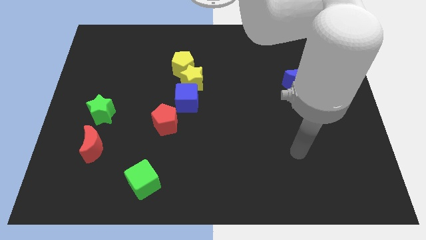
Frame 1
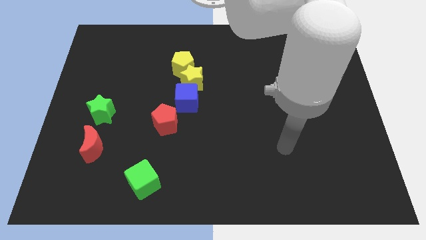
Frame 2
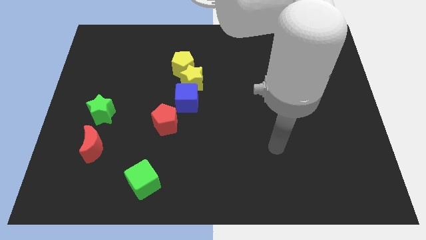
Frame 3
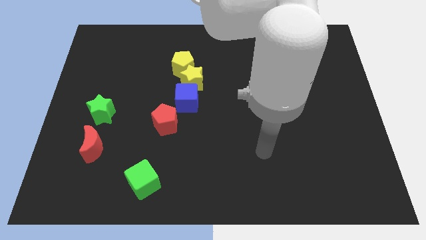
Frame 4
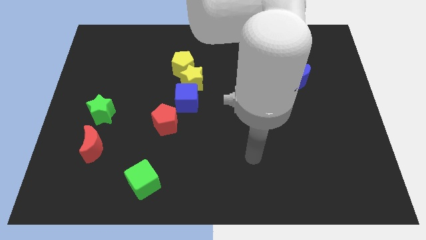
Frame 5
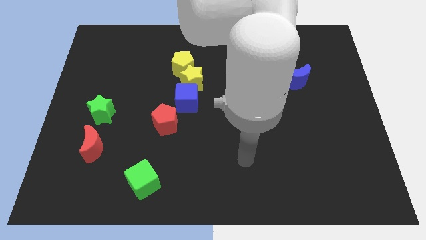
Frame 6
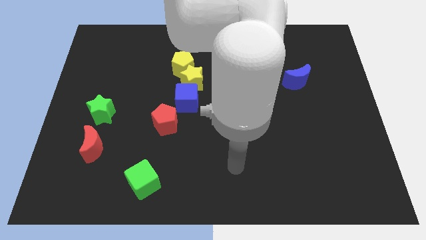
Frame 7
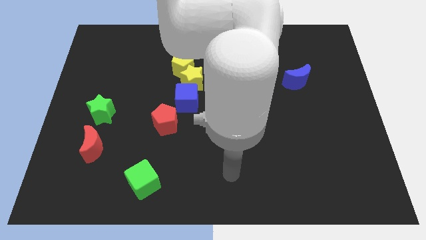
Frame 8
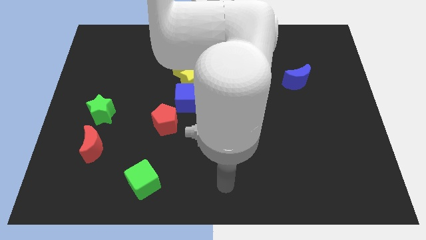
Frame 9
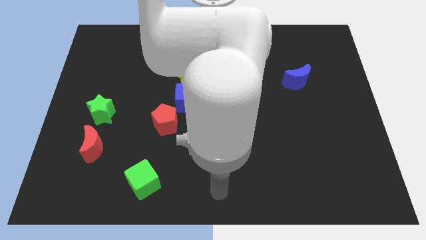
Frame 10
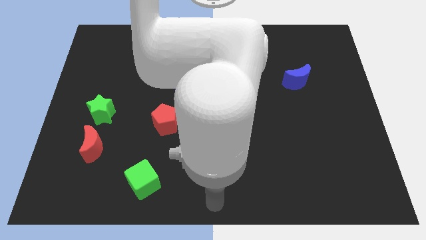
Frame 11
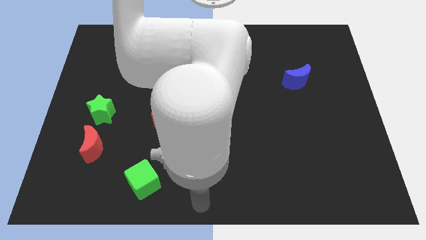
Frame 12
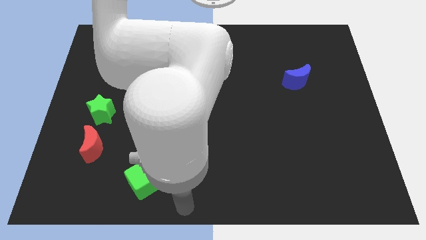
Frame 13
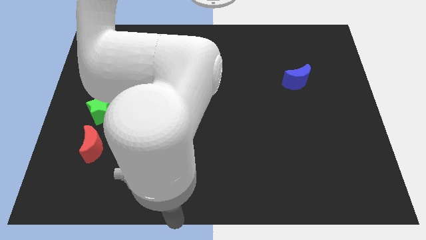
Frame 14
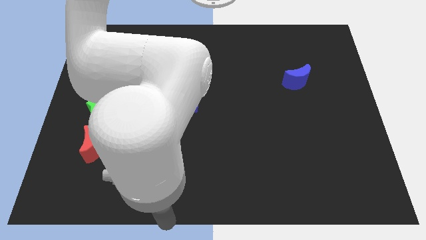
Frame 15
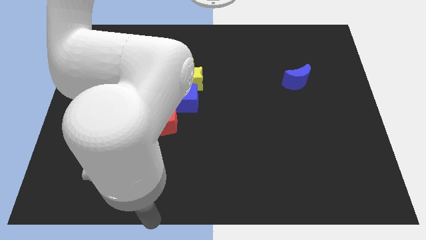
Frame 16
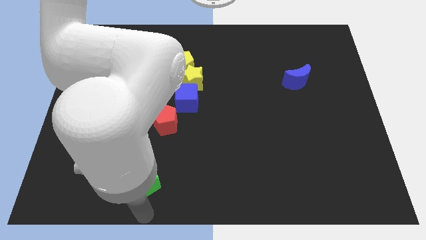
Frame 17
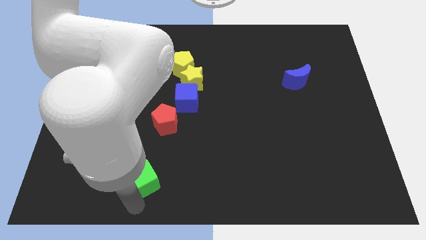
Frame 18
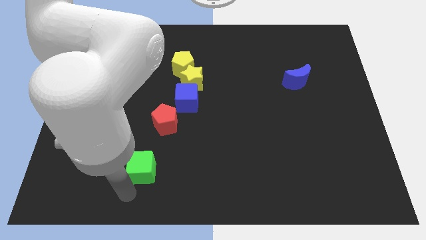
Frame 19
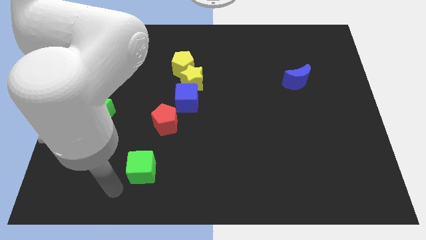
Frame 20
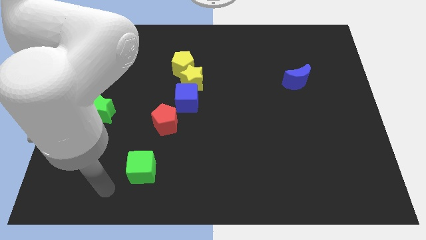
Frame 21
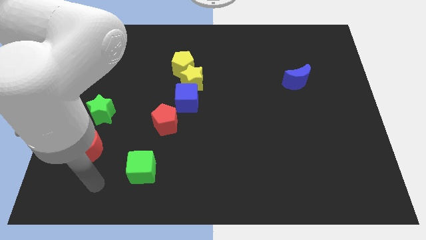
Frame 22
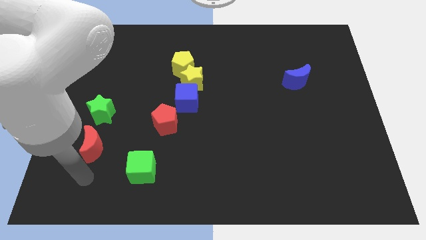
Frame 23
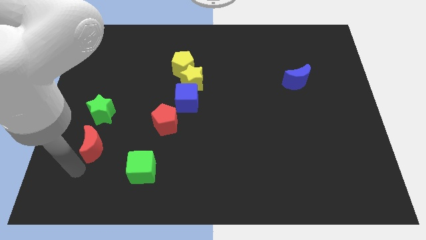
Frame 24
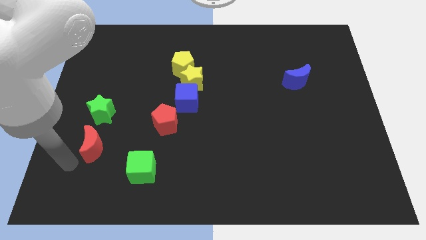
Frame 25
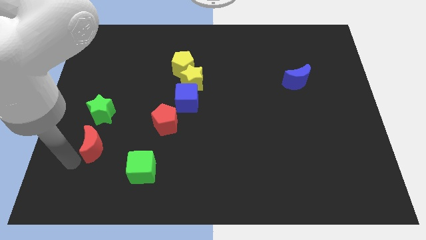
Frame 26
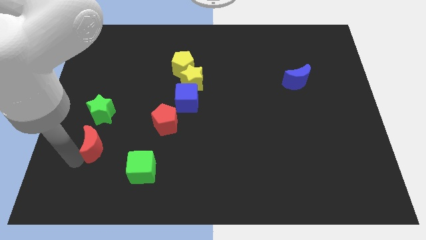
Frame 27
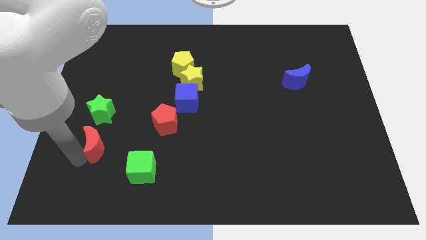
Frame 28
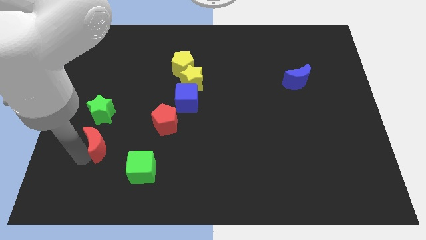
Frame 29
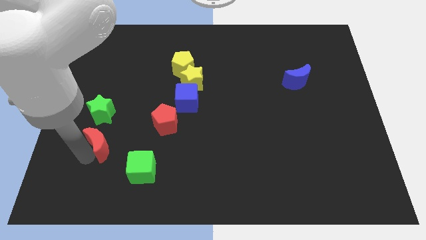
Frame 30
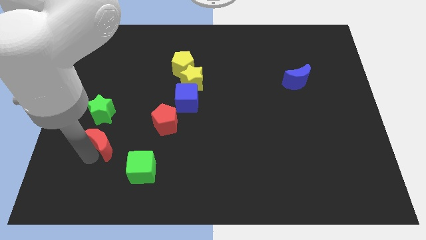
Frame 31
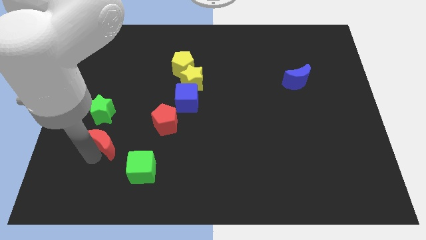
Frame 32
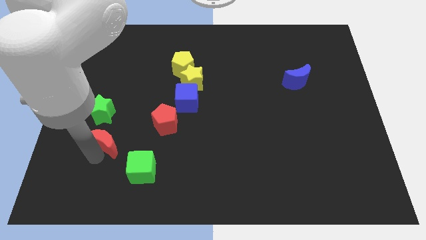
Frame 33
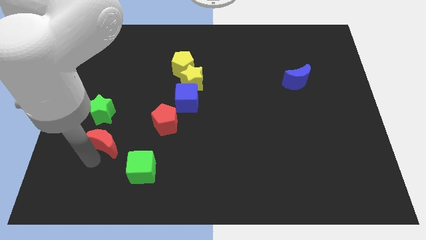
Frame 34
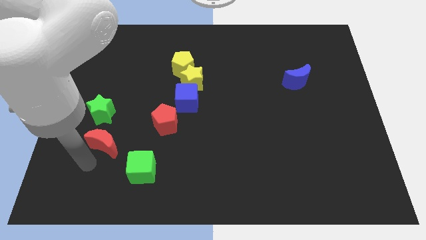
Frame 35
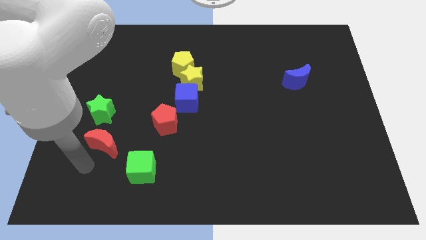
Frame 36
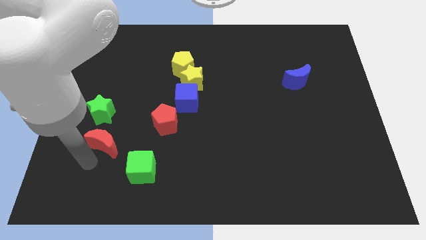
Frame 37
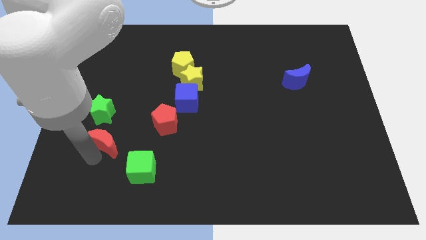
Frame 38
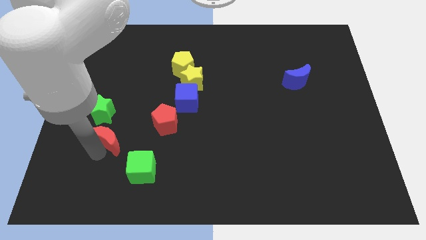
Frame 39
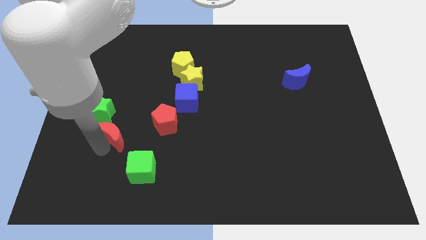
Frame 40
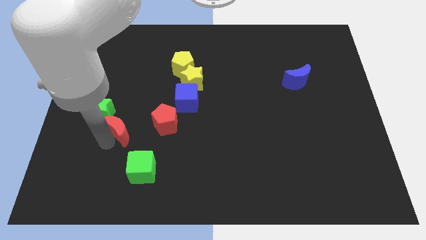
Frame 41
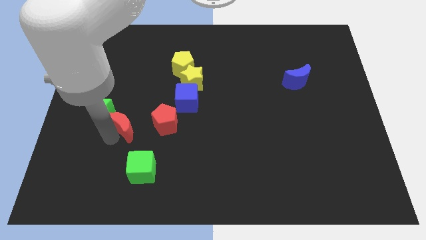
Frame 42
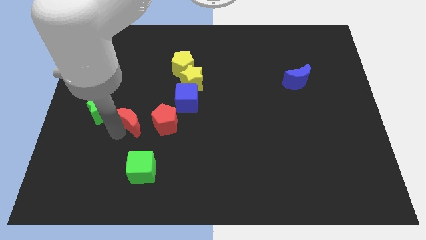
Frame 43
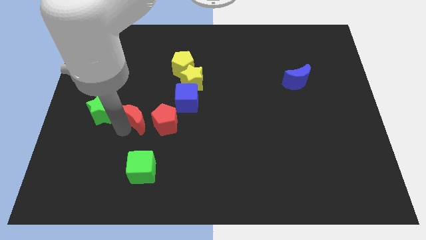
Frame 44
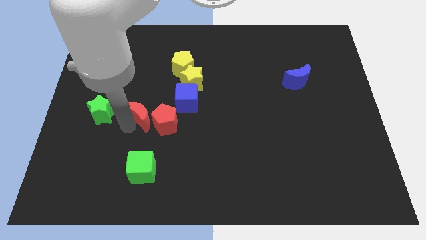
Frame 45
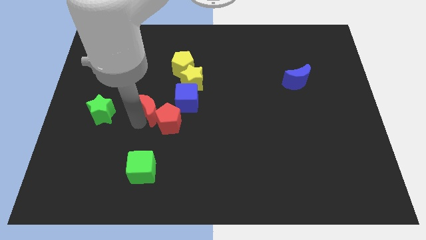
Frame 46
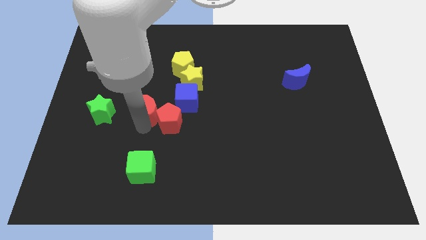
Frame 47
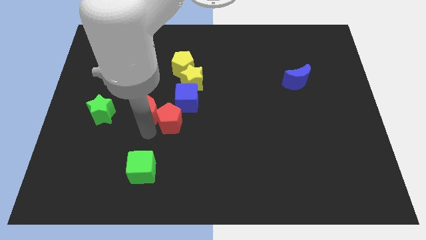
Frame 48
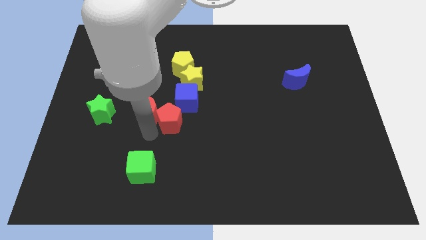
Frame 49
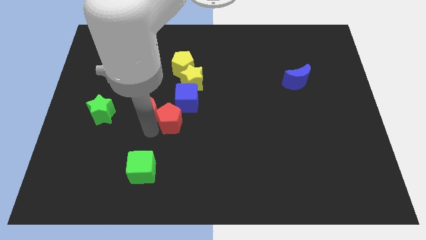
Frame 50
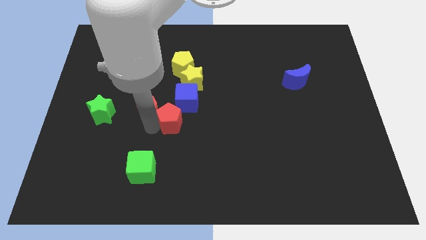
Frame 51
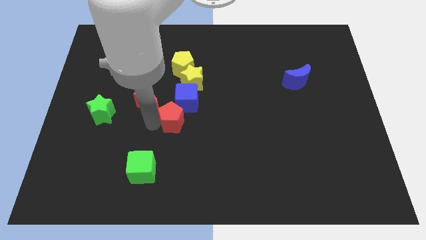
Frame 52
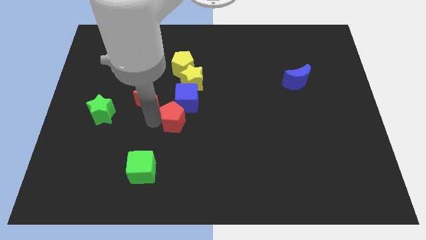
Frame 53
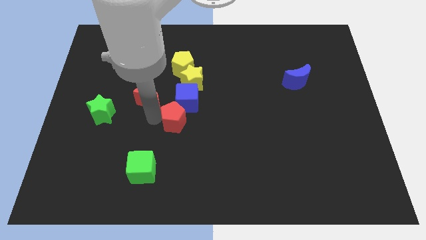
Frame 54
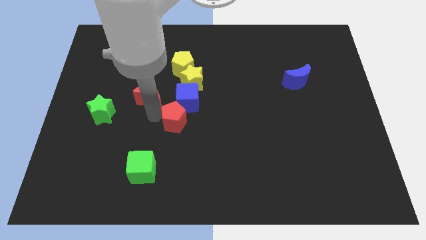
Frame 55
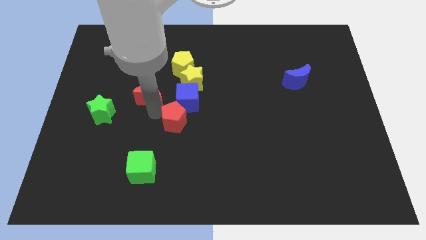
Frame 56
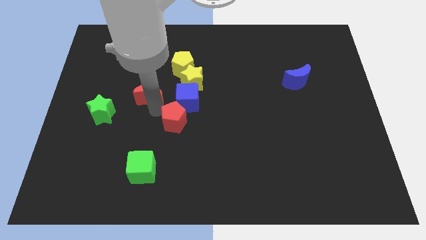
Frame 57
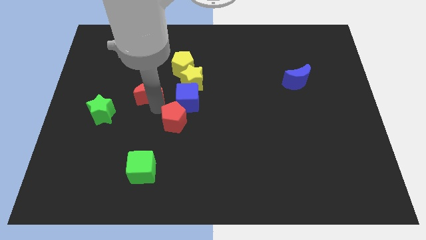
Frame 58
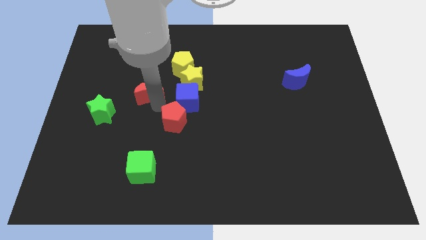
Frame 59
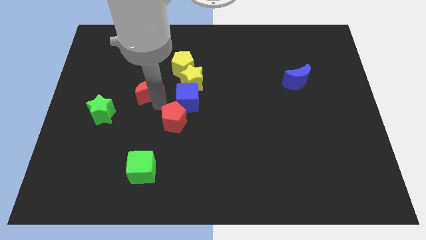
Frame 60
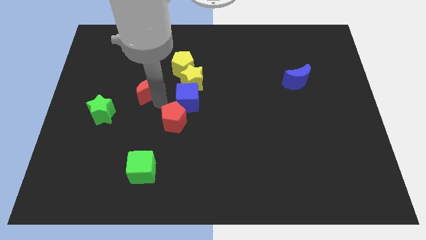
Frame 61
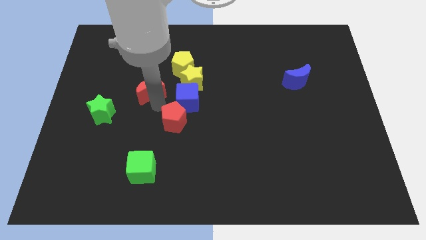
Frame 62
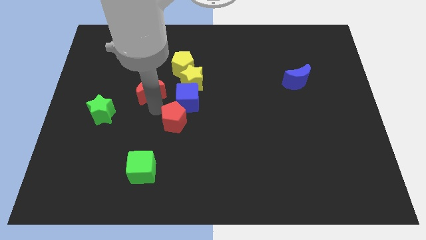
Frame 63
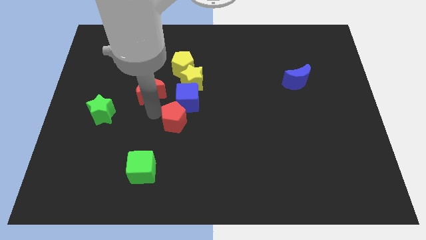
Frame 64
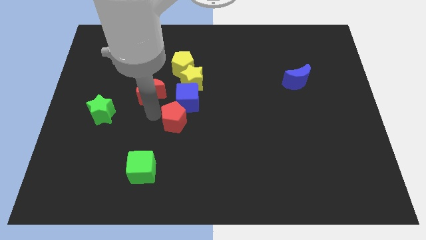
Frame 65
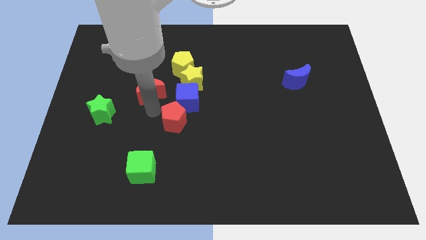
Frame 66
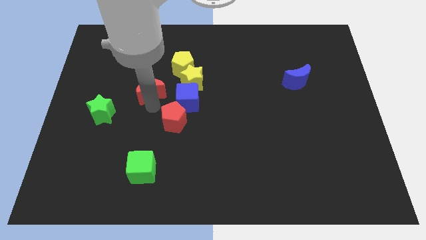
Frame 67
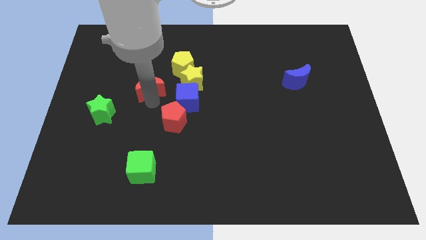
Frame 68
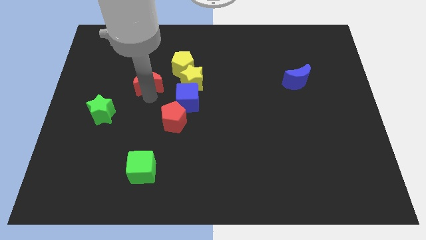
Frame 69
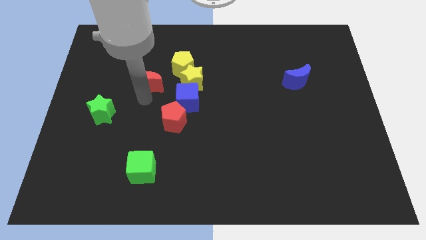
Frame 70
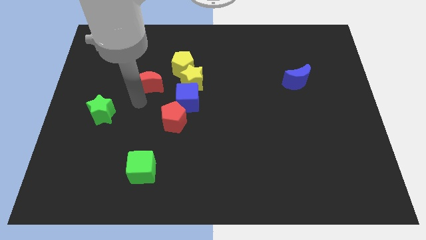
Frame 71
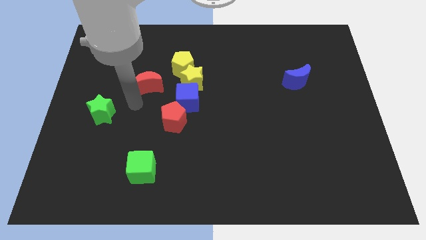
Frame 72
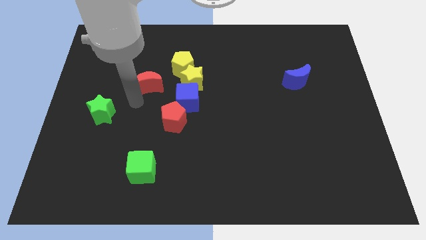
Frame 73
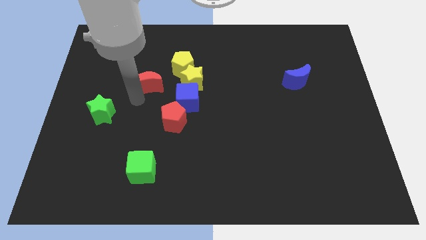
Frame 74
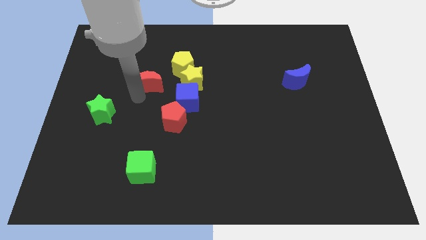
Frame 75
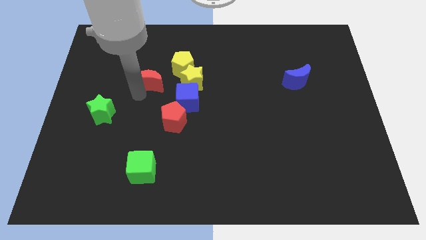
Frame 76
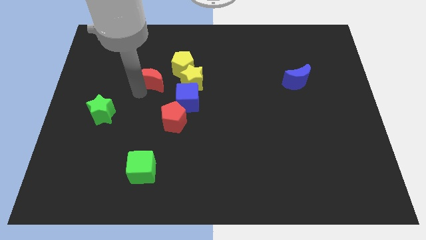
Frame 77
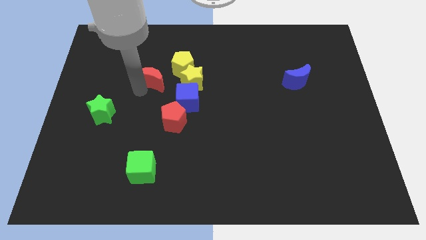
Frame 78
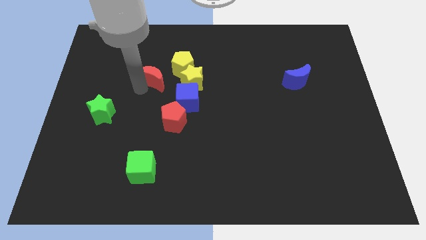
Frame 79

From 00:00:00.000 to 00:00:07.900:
slide the red moon upwards and right
